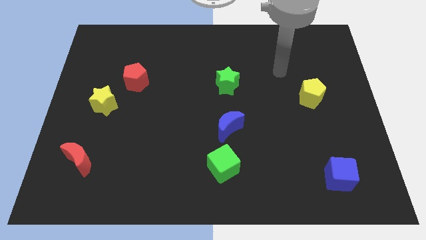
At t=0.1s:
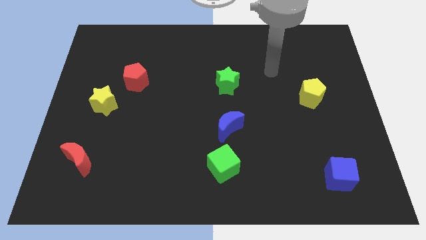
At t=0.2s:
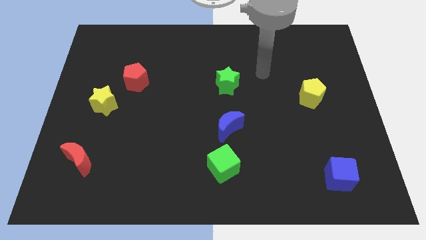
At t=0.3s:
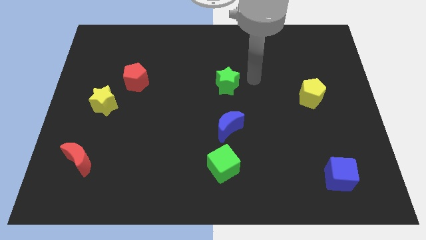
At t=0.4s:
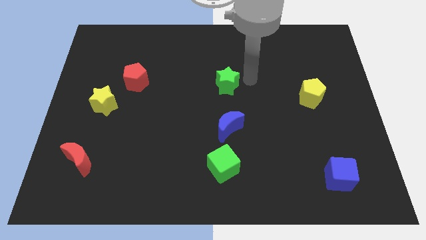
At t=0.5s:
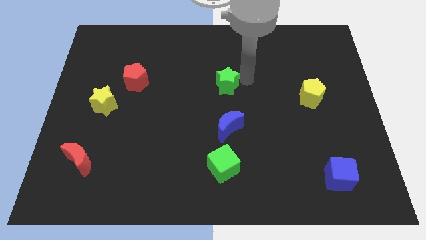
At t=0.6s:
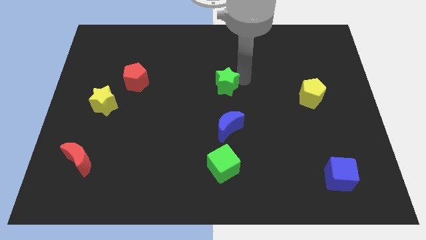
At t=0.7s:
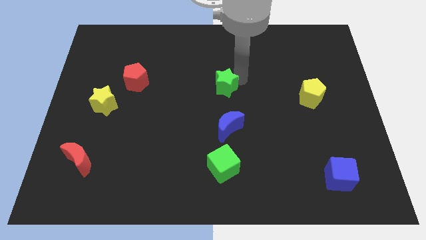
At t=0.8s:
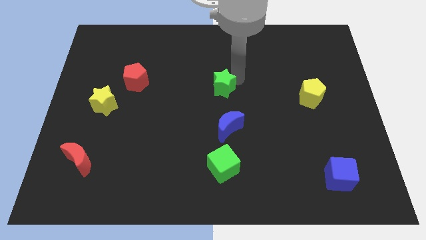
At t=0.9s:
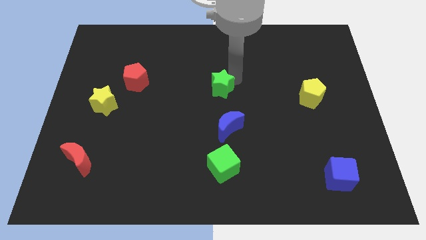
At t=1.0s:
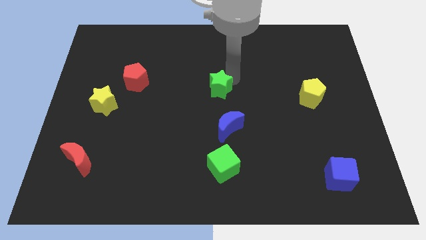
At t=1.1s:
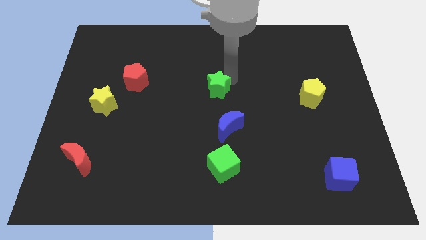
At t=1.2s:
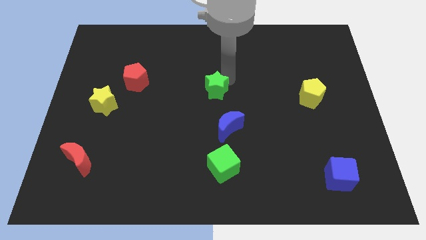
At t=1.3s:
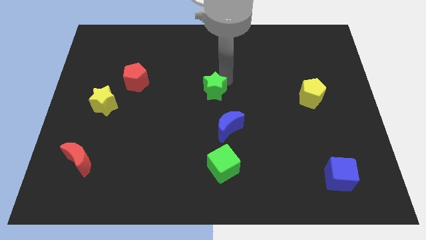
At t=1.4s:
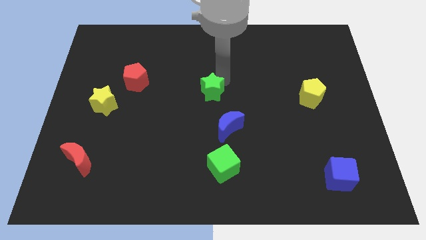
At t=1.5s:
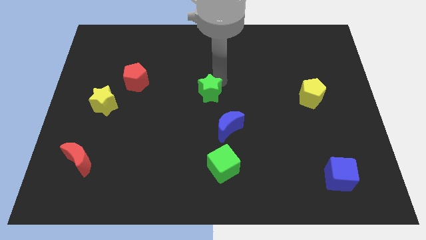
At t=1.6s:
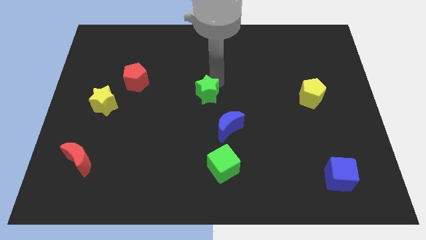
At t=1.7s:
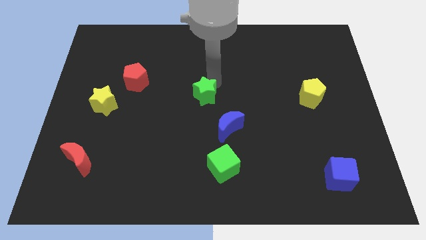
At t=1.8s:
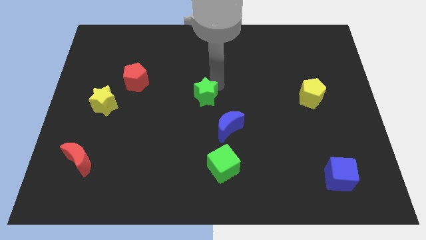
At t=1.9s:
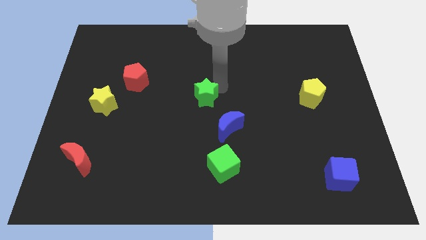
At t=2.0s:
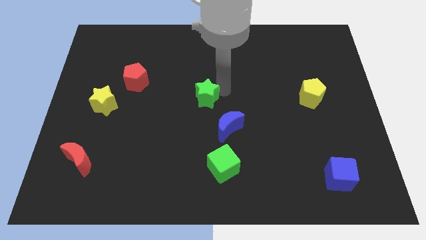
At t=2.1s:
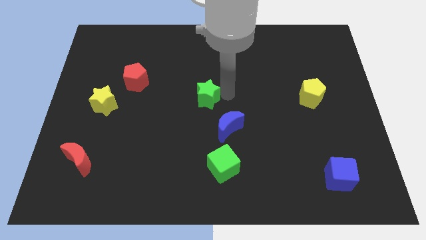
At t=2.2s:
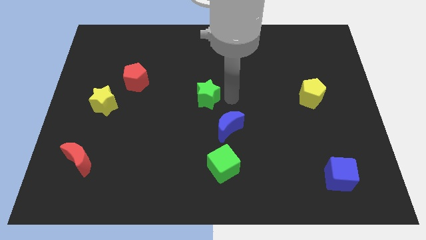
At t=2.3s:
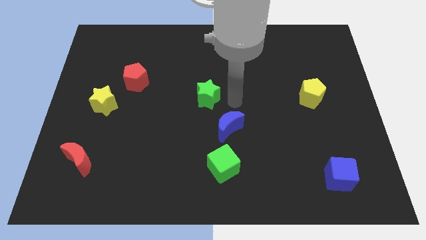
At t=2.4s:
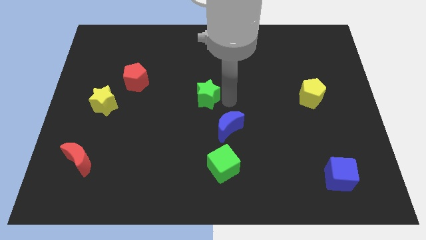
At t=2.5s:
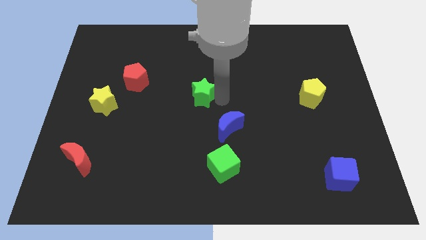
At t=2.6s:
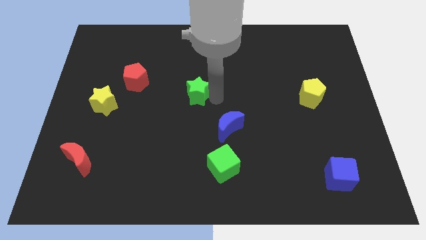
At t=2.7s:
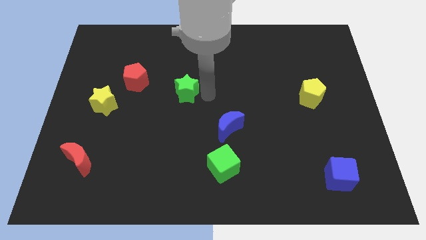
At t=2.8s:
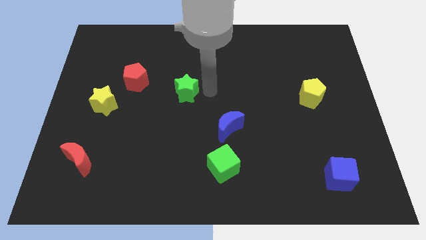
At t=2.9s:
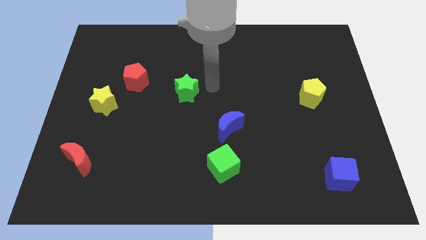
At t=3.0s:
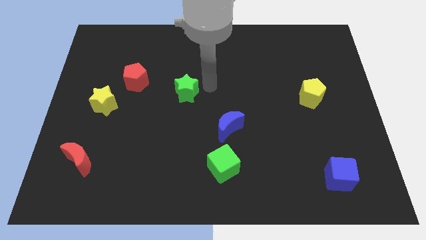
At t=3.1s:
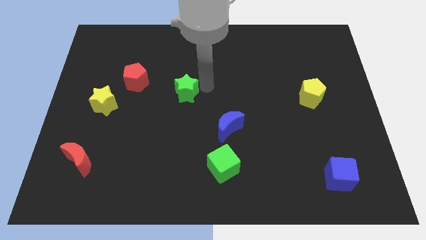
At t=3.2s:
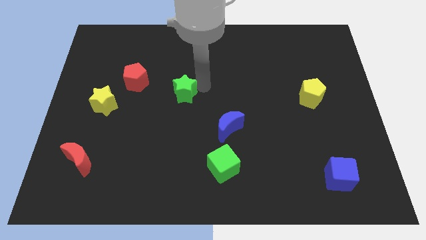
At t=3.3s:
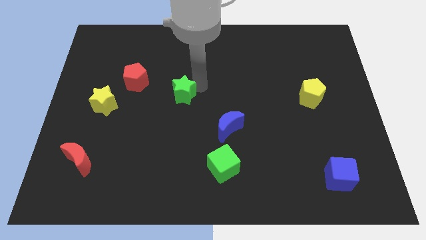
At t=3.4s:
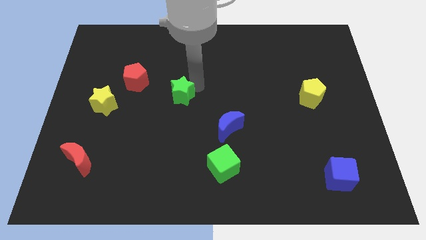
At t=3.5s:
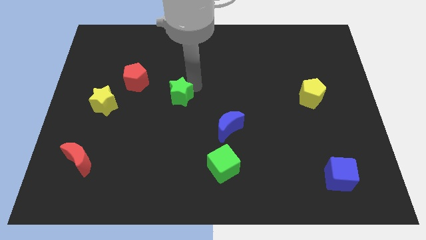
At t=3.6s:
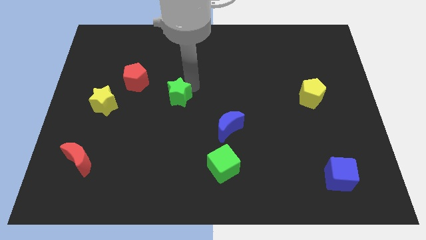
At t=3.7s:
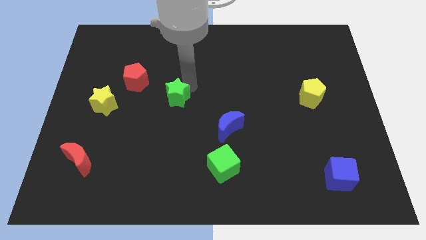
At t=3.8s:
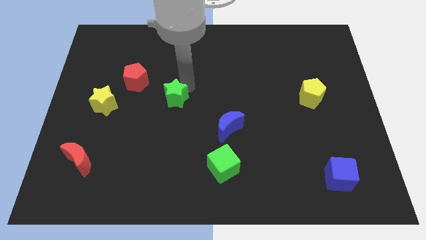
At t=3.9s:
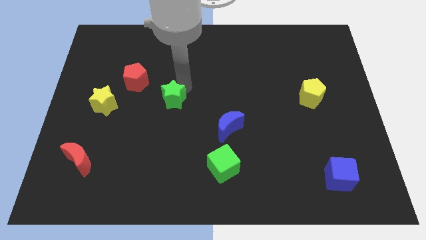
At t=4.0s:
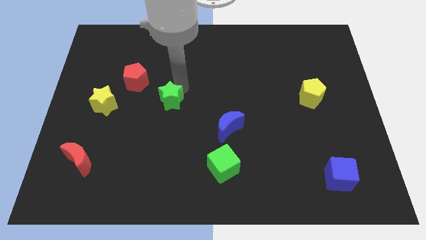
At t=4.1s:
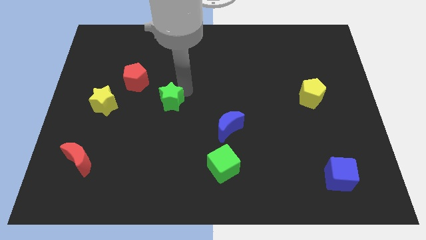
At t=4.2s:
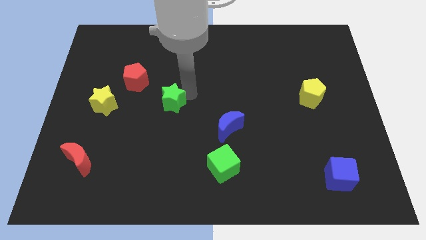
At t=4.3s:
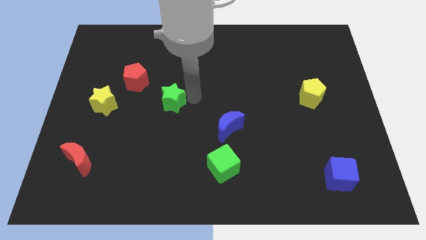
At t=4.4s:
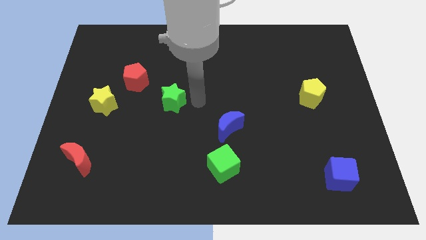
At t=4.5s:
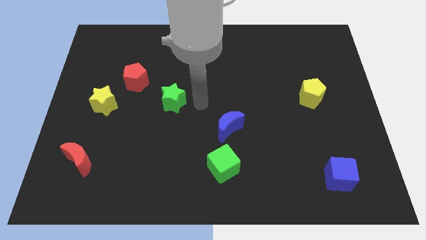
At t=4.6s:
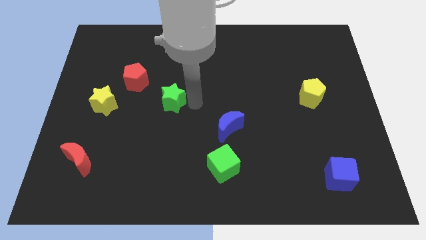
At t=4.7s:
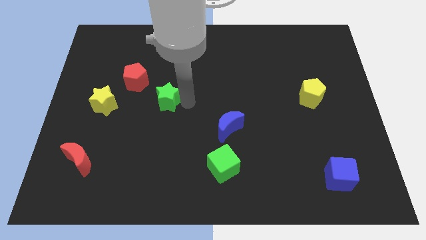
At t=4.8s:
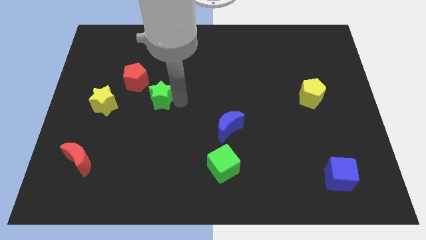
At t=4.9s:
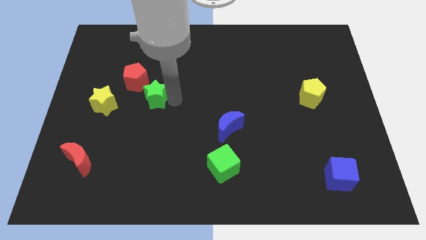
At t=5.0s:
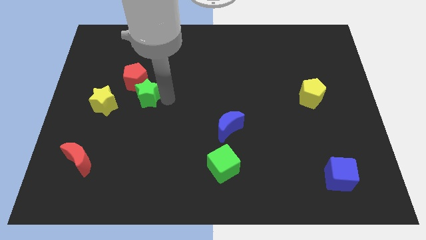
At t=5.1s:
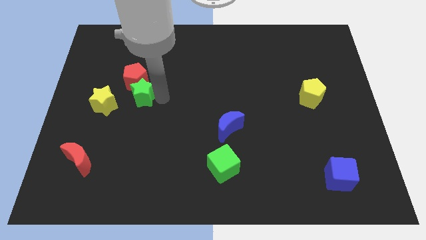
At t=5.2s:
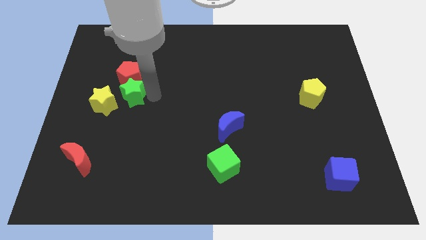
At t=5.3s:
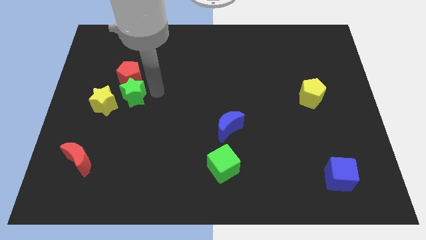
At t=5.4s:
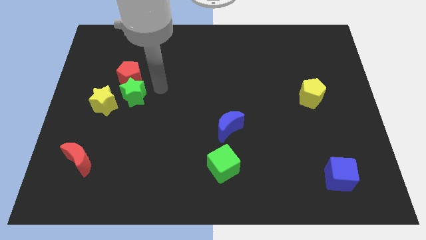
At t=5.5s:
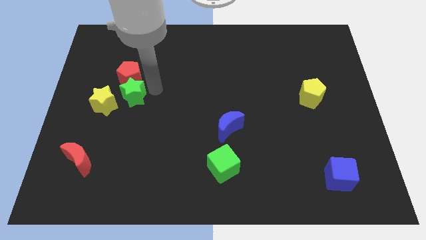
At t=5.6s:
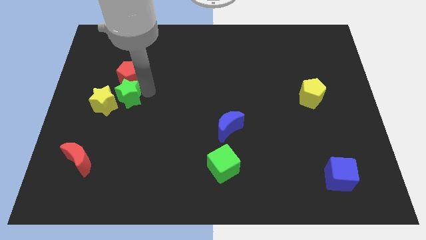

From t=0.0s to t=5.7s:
move the green star towards the yellow star

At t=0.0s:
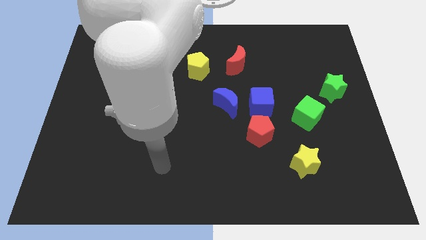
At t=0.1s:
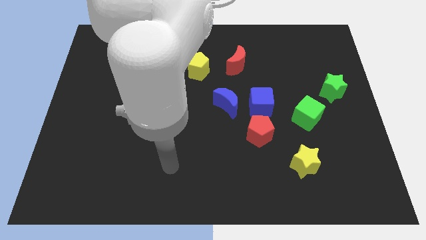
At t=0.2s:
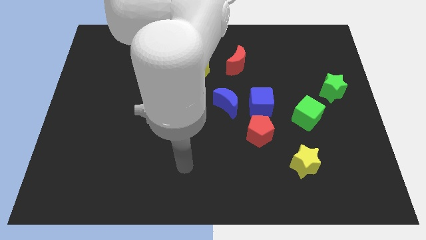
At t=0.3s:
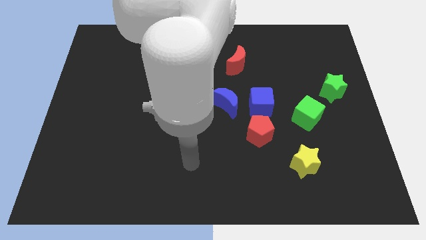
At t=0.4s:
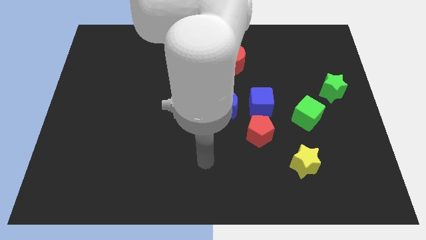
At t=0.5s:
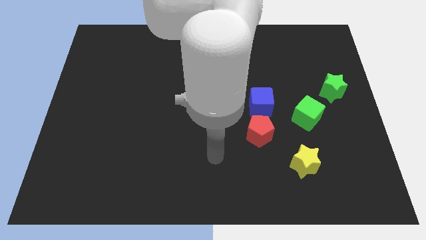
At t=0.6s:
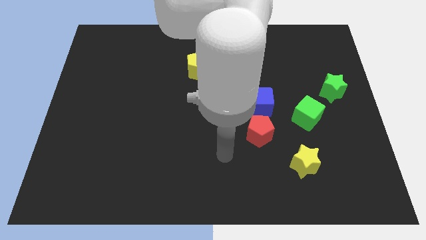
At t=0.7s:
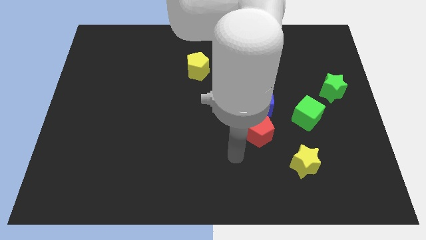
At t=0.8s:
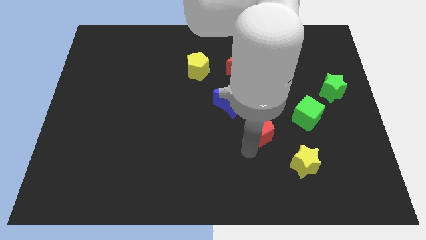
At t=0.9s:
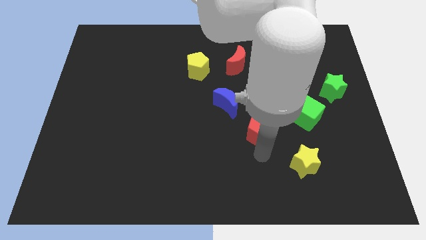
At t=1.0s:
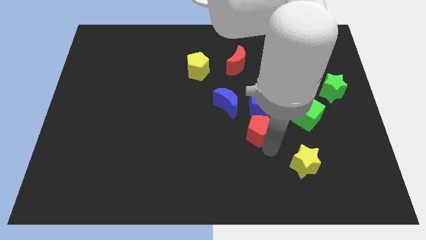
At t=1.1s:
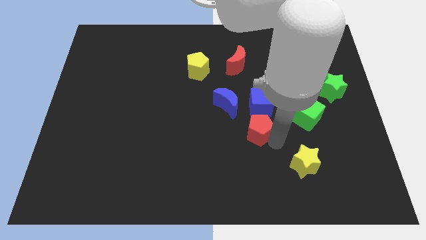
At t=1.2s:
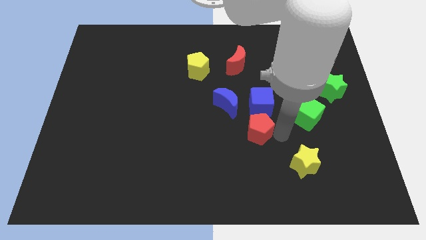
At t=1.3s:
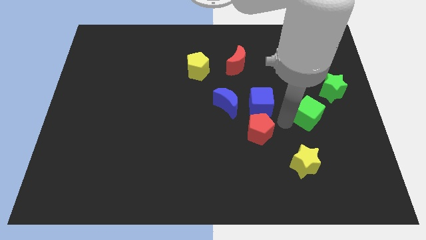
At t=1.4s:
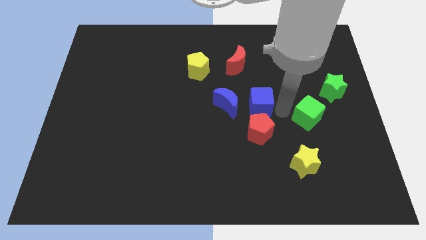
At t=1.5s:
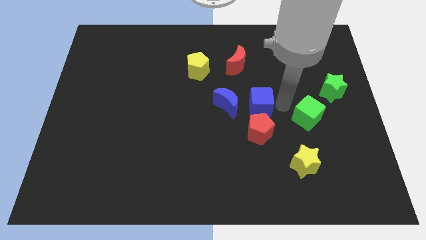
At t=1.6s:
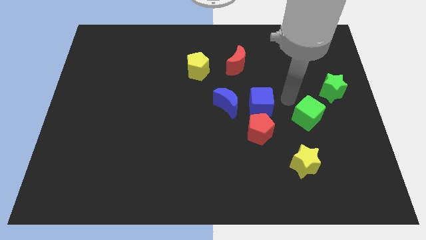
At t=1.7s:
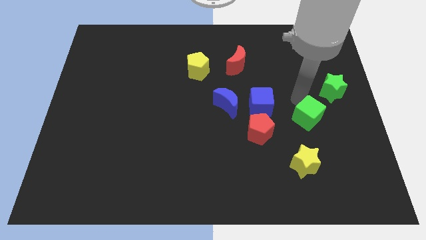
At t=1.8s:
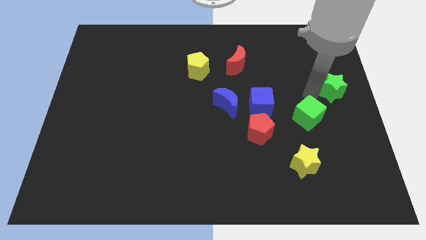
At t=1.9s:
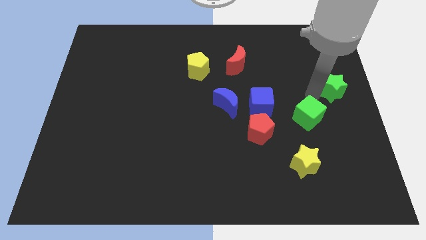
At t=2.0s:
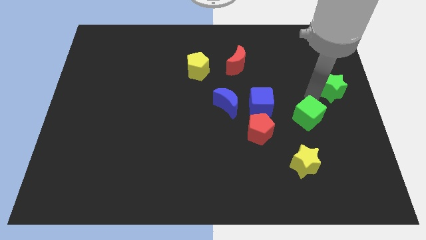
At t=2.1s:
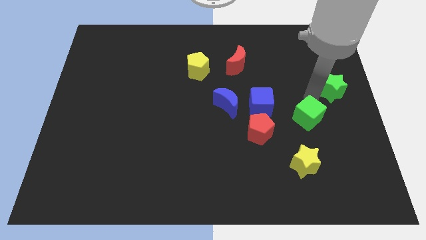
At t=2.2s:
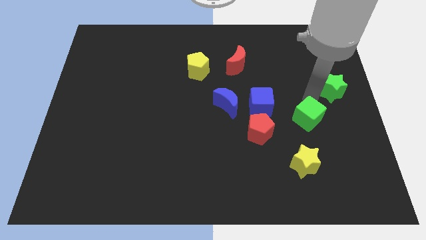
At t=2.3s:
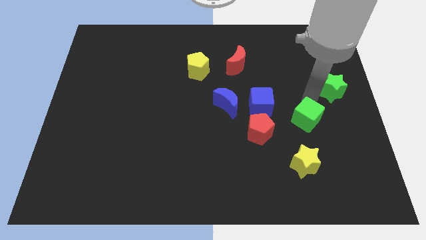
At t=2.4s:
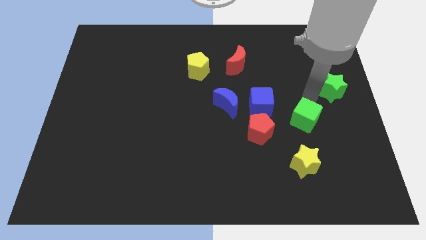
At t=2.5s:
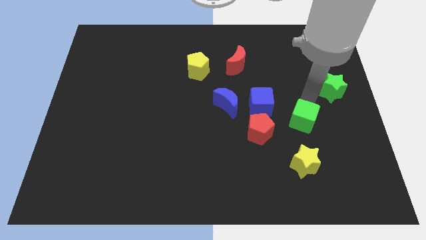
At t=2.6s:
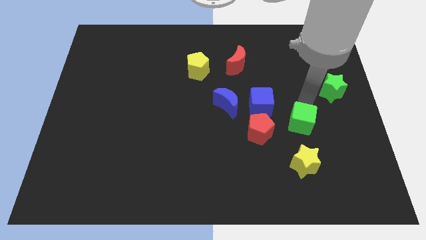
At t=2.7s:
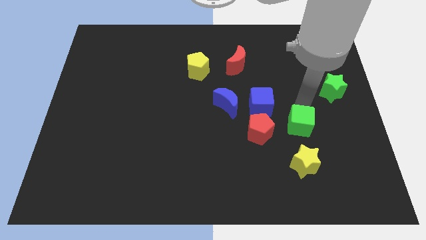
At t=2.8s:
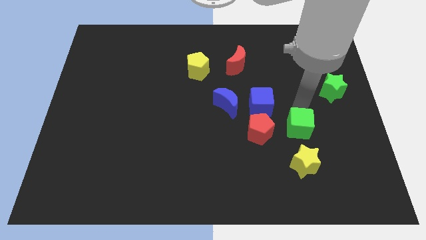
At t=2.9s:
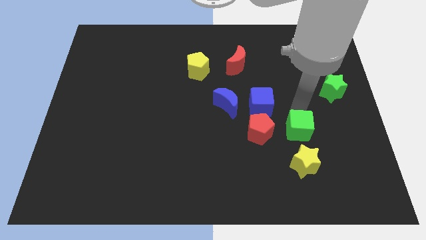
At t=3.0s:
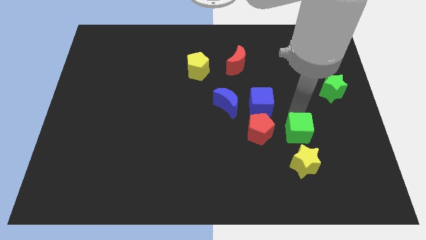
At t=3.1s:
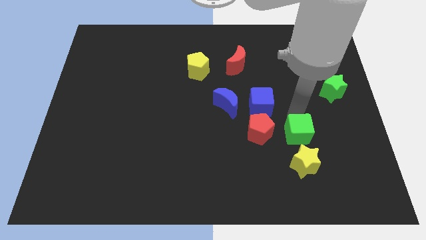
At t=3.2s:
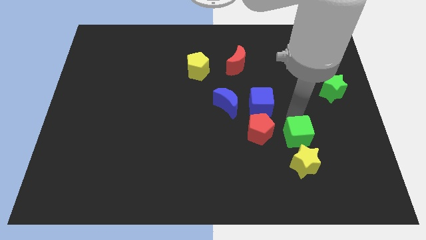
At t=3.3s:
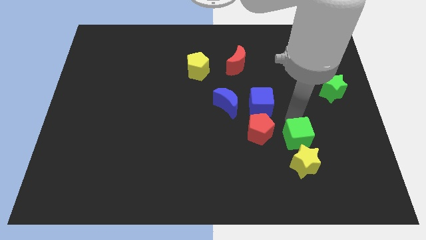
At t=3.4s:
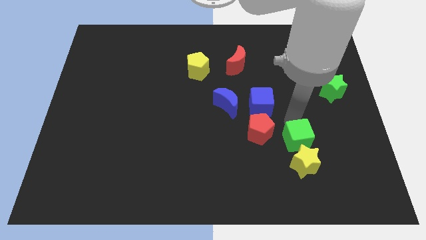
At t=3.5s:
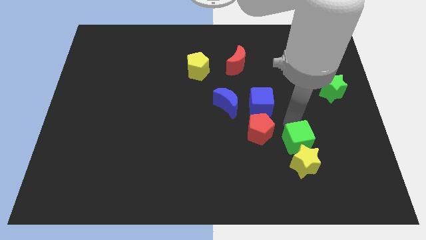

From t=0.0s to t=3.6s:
push the green cube to the yellow star
